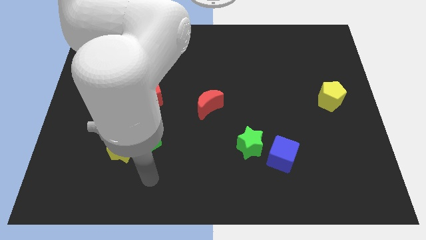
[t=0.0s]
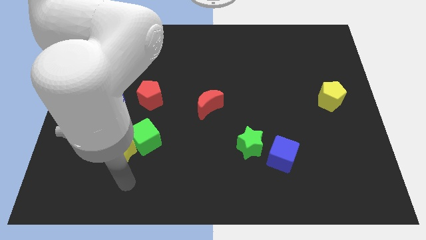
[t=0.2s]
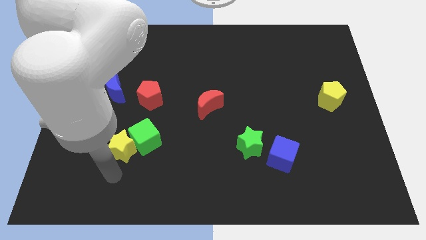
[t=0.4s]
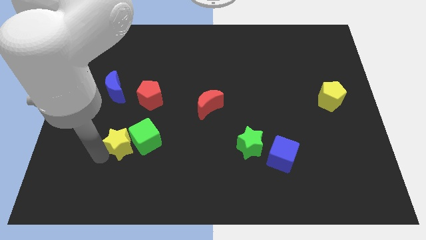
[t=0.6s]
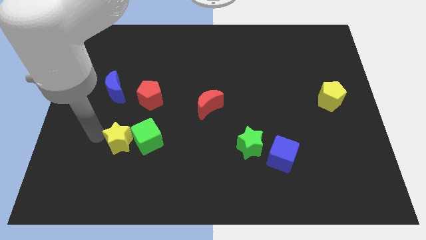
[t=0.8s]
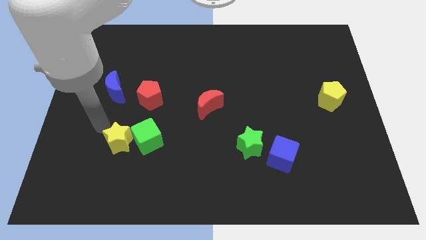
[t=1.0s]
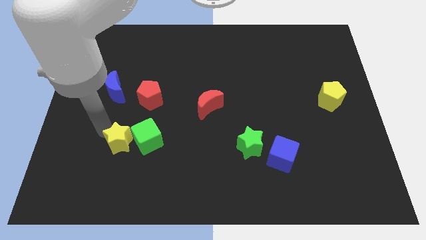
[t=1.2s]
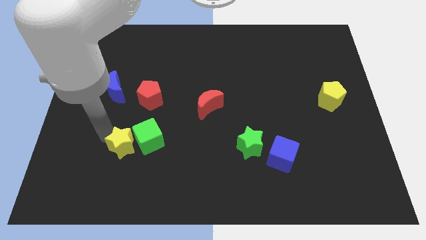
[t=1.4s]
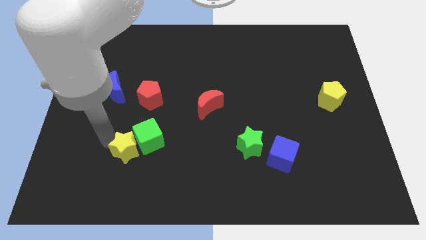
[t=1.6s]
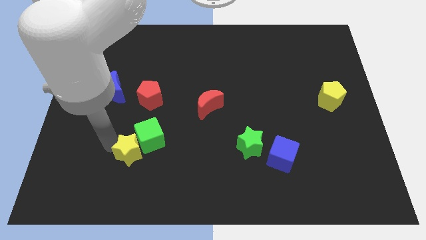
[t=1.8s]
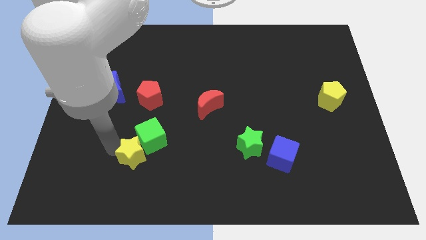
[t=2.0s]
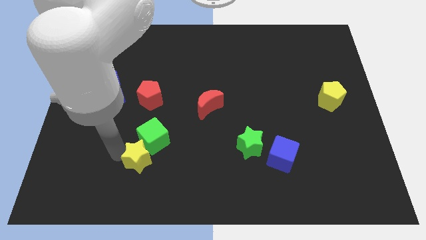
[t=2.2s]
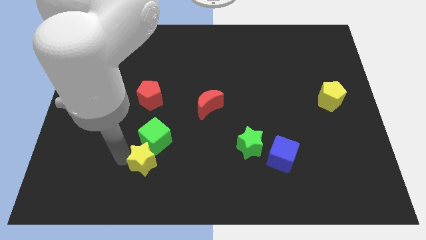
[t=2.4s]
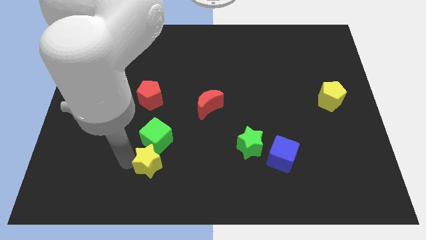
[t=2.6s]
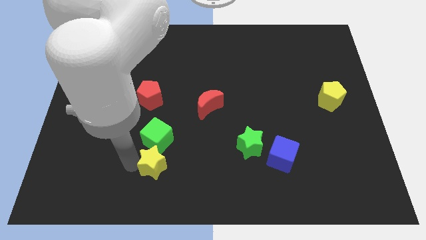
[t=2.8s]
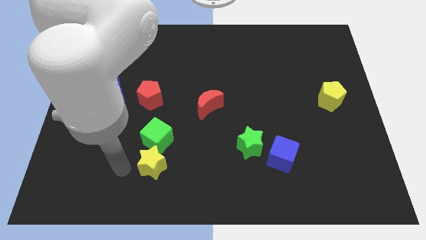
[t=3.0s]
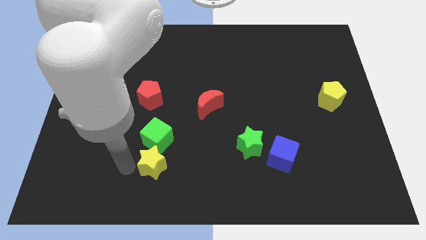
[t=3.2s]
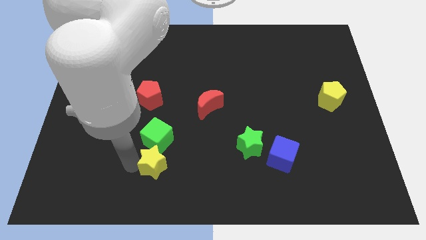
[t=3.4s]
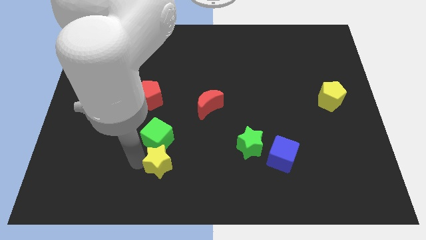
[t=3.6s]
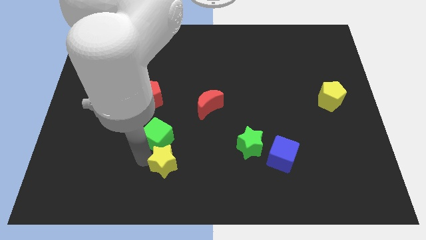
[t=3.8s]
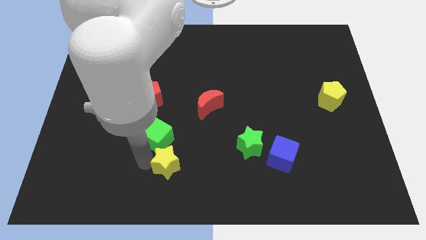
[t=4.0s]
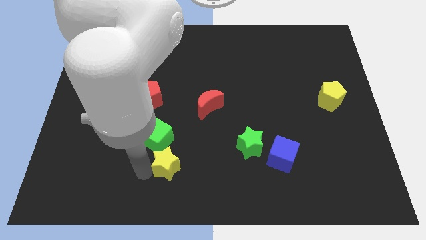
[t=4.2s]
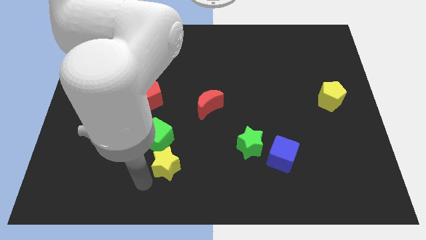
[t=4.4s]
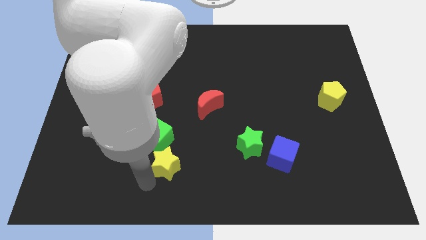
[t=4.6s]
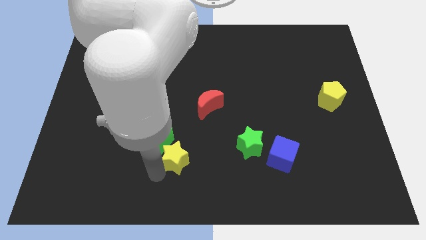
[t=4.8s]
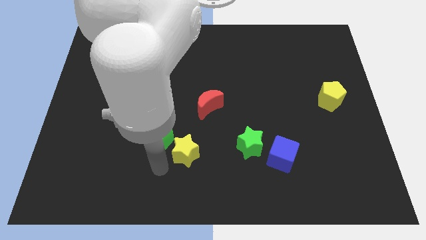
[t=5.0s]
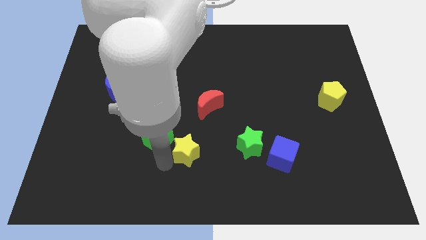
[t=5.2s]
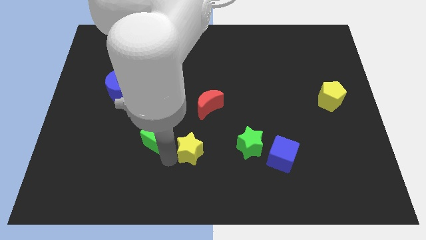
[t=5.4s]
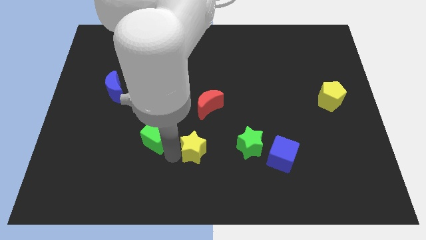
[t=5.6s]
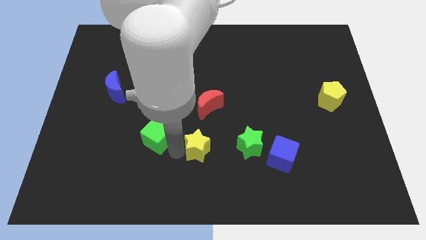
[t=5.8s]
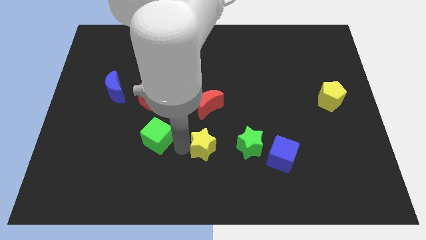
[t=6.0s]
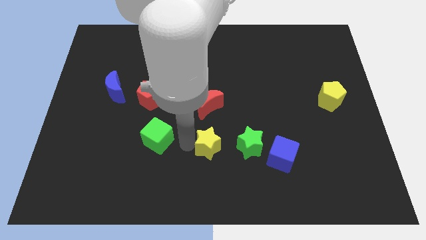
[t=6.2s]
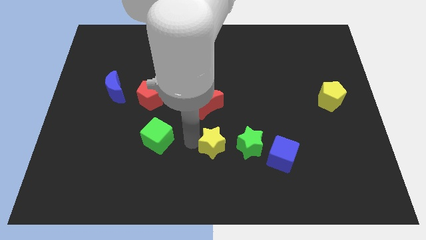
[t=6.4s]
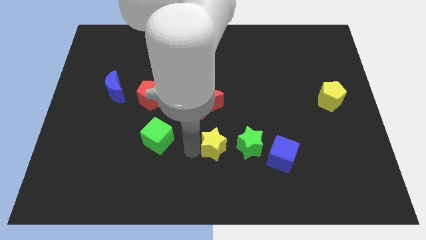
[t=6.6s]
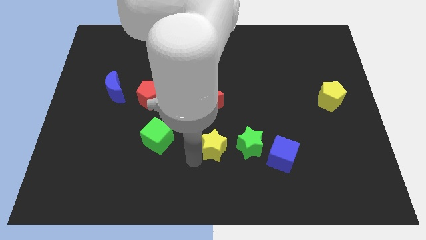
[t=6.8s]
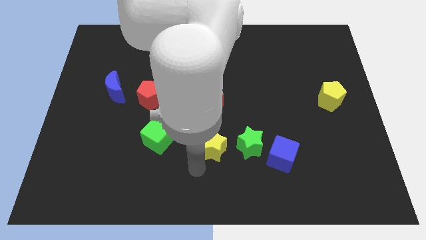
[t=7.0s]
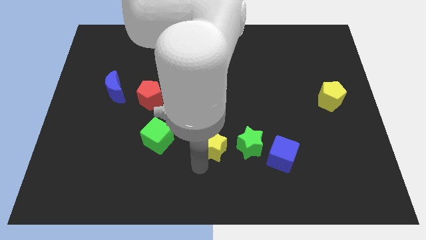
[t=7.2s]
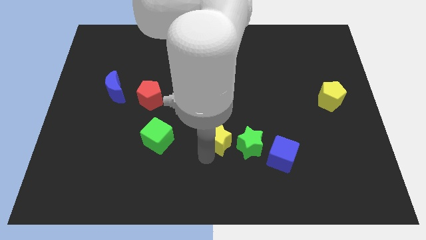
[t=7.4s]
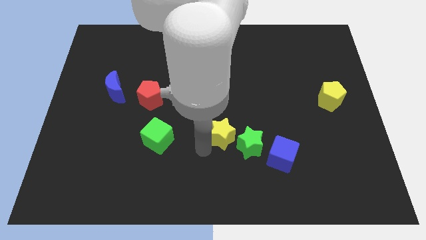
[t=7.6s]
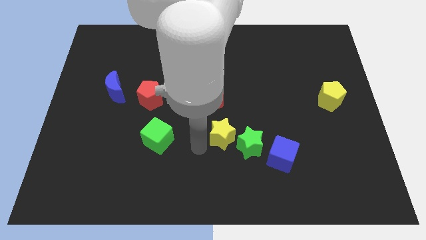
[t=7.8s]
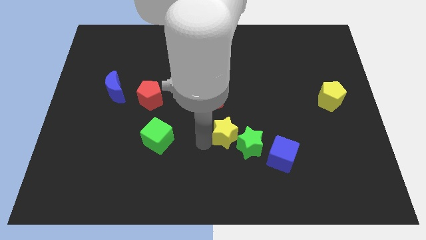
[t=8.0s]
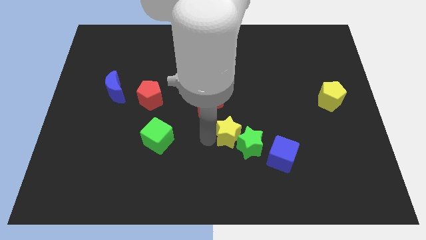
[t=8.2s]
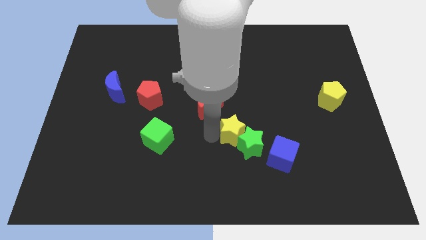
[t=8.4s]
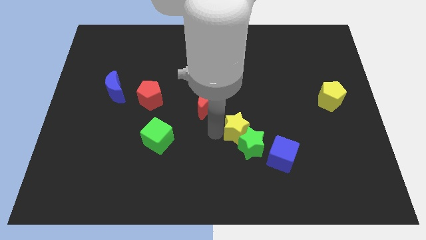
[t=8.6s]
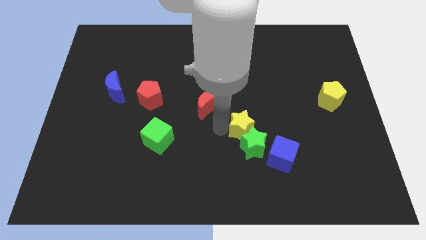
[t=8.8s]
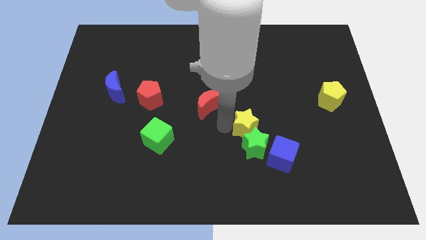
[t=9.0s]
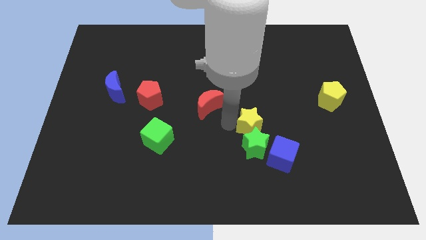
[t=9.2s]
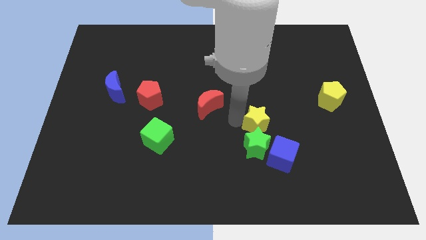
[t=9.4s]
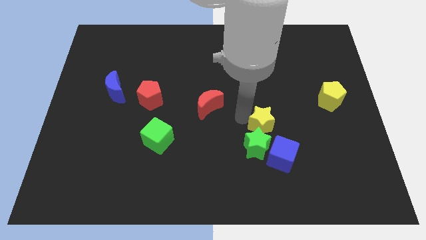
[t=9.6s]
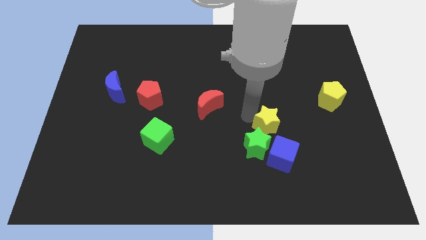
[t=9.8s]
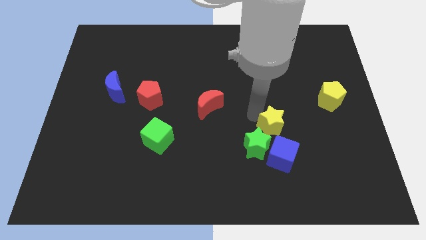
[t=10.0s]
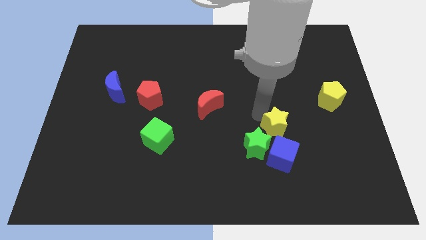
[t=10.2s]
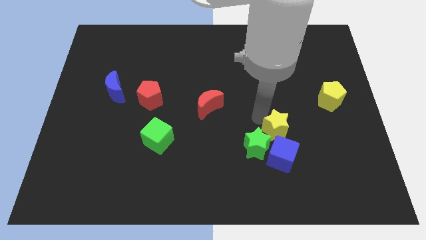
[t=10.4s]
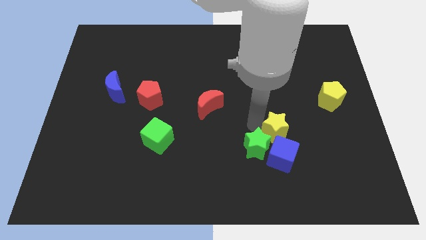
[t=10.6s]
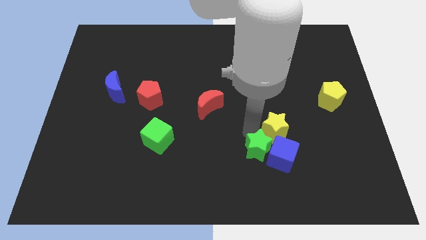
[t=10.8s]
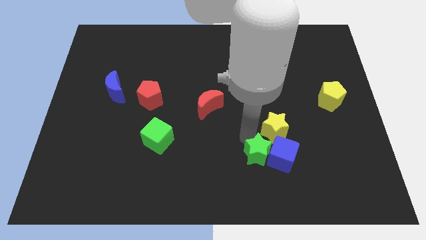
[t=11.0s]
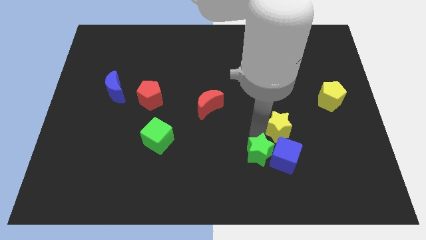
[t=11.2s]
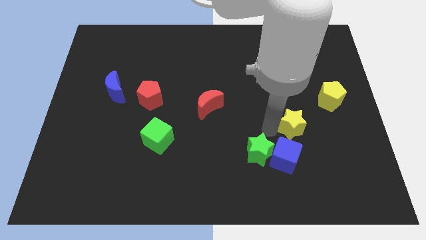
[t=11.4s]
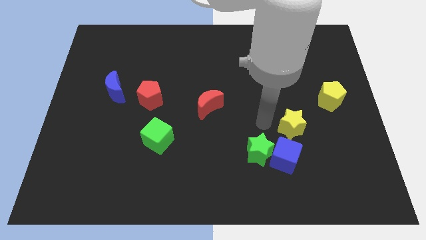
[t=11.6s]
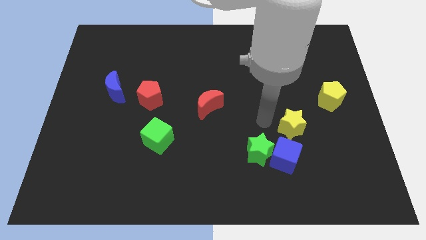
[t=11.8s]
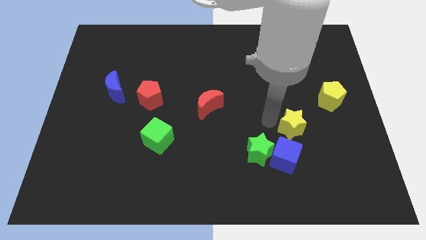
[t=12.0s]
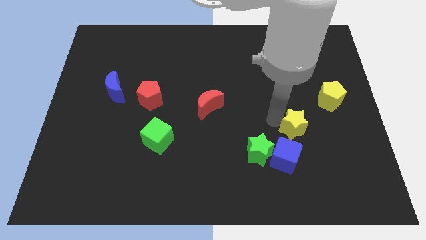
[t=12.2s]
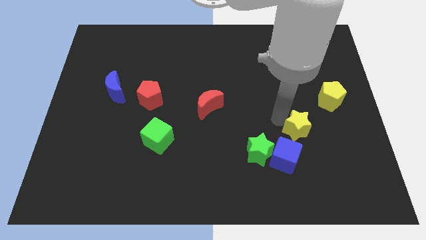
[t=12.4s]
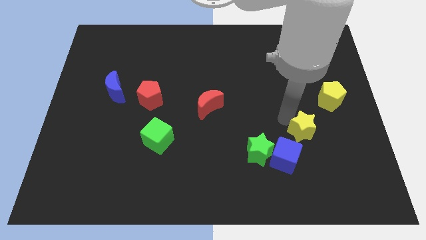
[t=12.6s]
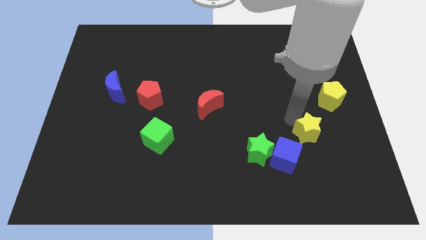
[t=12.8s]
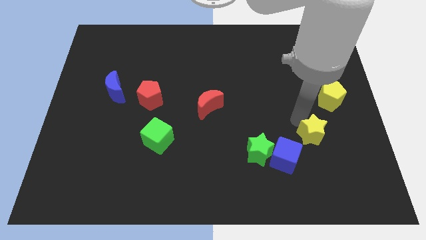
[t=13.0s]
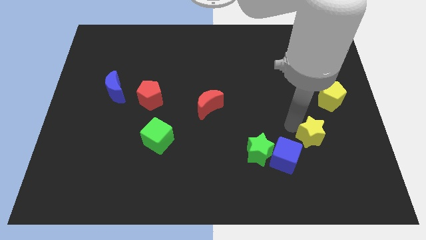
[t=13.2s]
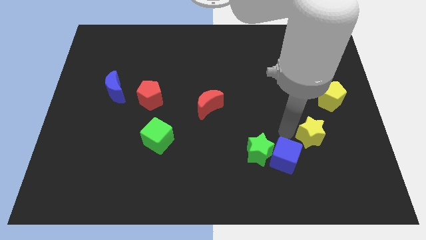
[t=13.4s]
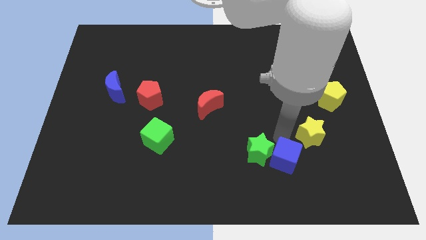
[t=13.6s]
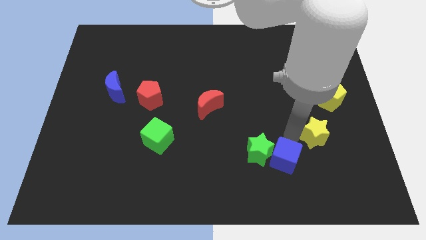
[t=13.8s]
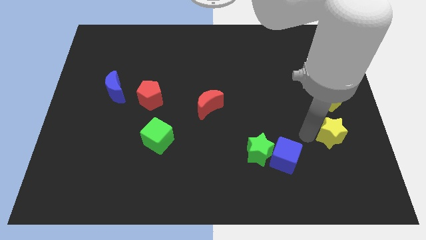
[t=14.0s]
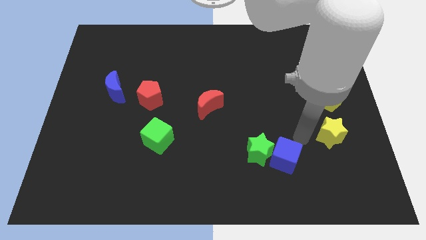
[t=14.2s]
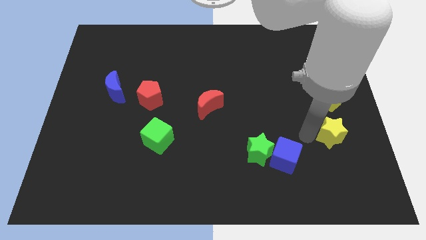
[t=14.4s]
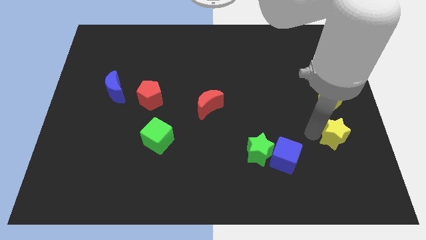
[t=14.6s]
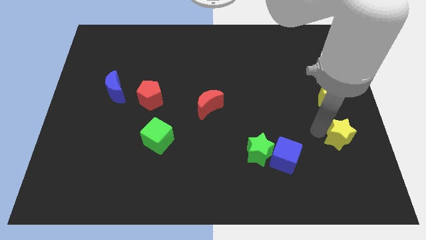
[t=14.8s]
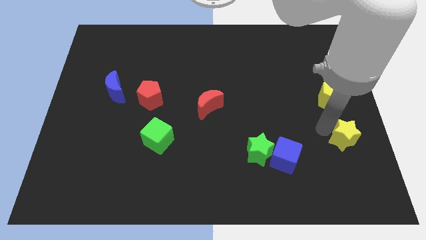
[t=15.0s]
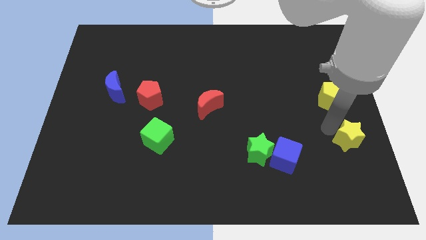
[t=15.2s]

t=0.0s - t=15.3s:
push the yellow star to the right side
